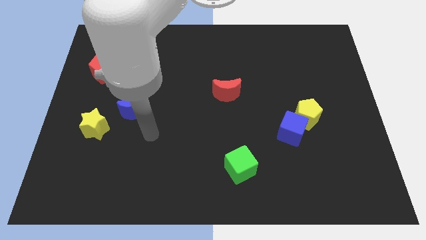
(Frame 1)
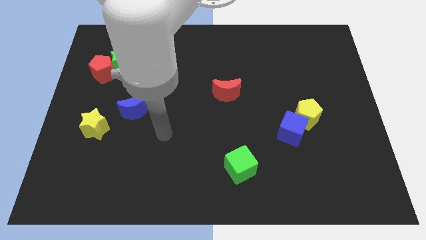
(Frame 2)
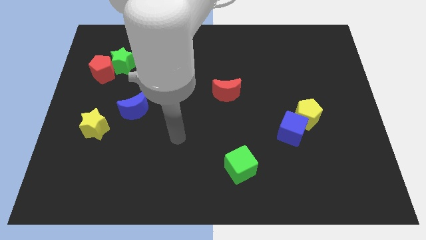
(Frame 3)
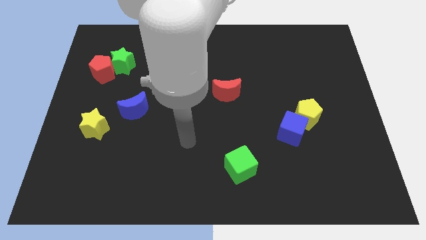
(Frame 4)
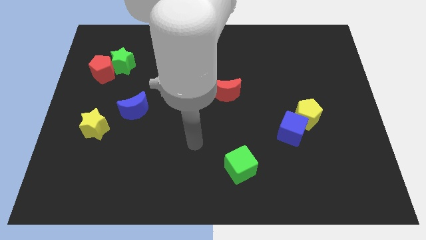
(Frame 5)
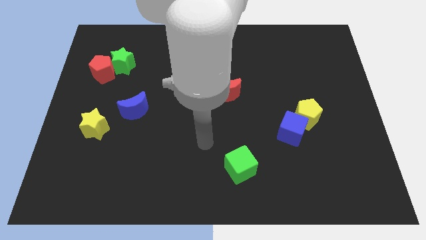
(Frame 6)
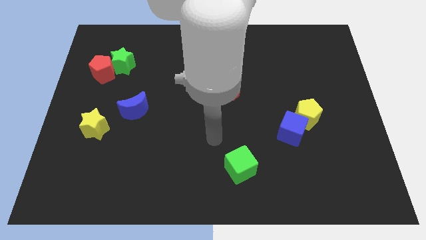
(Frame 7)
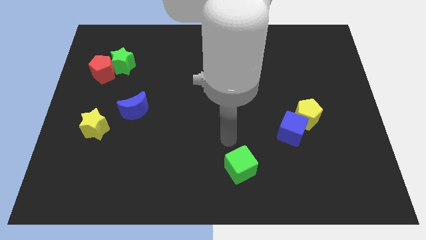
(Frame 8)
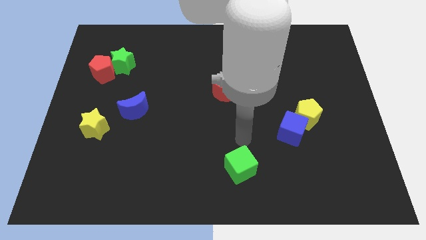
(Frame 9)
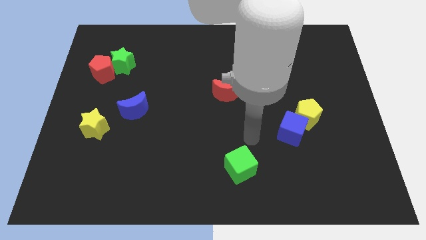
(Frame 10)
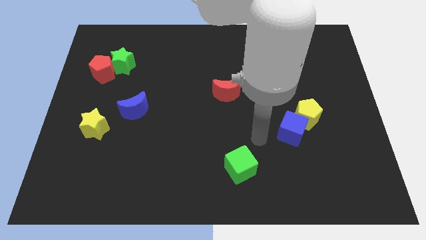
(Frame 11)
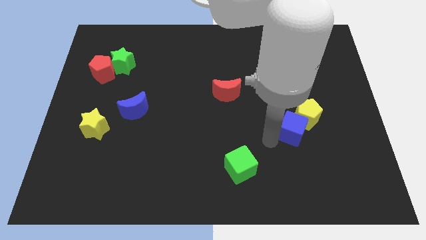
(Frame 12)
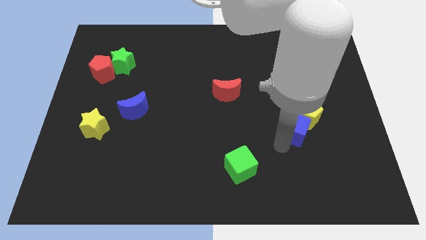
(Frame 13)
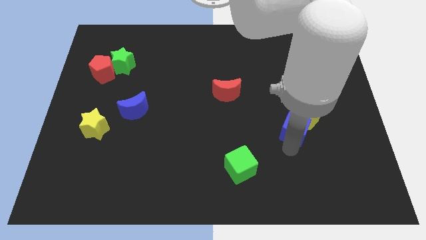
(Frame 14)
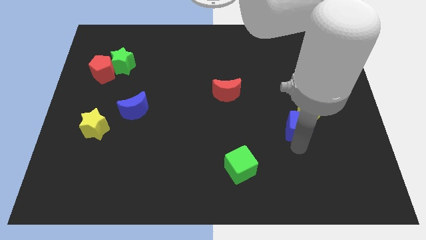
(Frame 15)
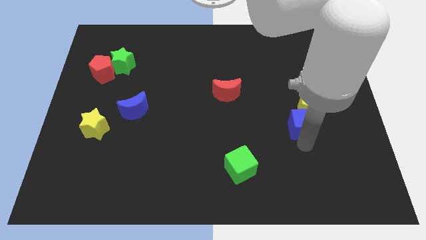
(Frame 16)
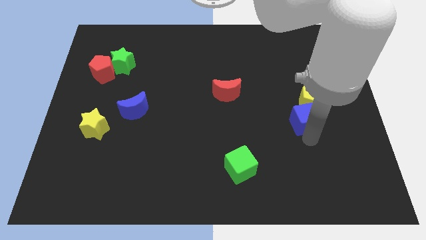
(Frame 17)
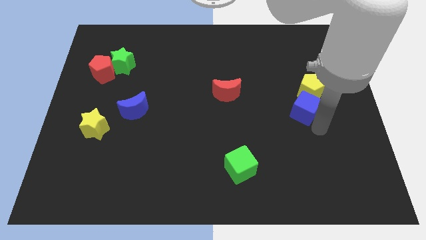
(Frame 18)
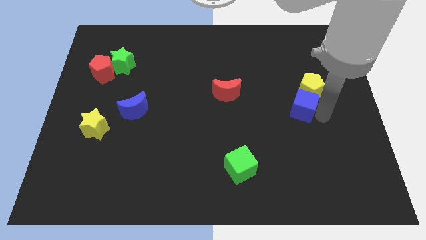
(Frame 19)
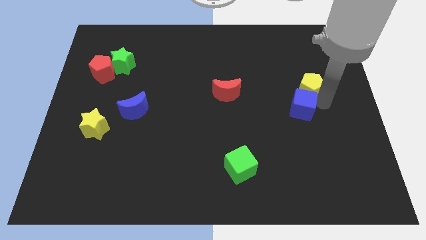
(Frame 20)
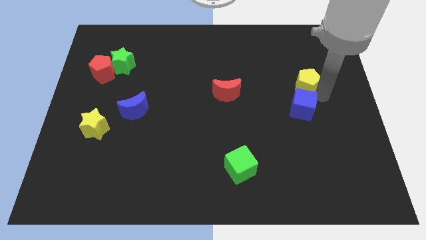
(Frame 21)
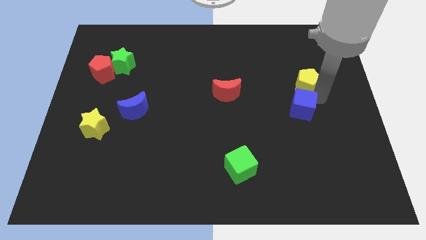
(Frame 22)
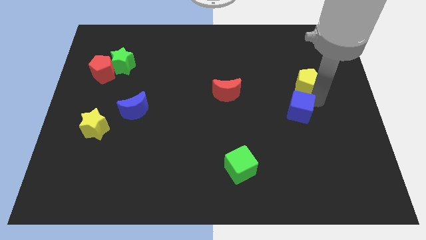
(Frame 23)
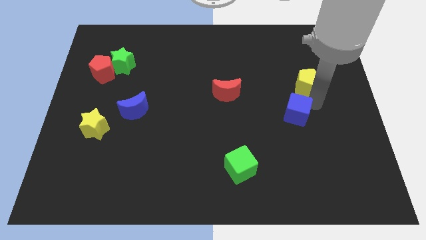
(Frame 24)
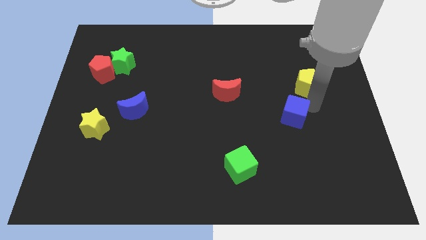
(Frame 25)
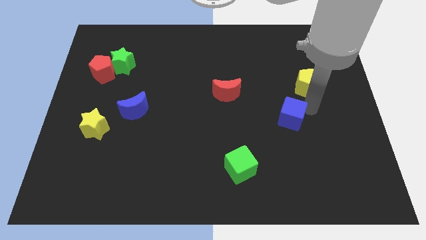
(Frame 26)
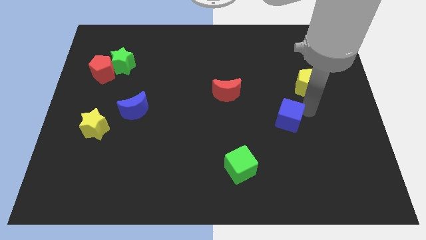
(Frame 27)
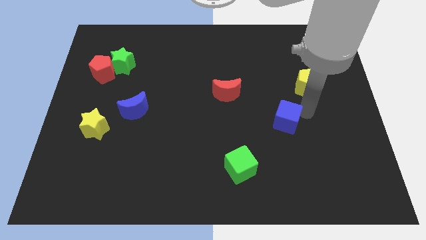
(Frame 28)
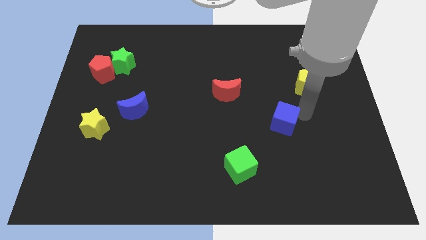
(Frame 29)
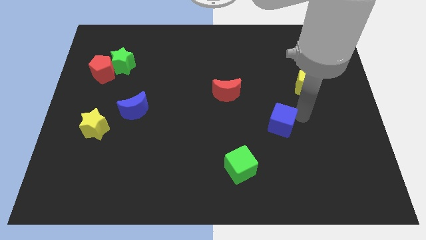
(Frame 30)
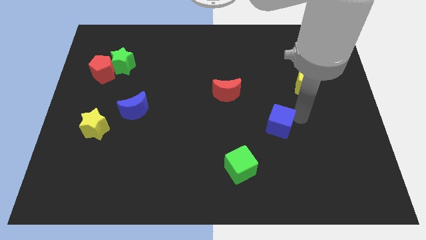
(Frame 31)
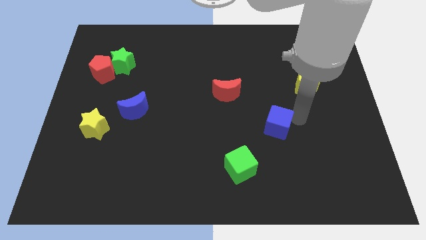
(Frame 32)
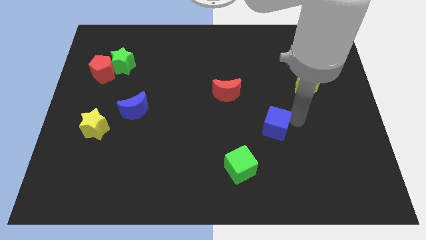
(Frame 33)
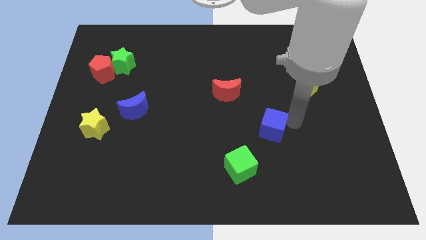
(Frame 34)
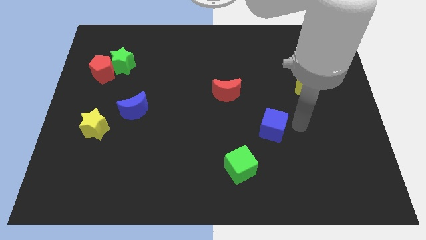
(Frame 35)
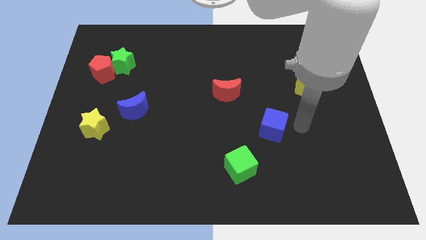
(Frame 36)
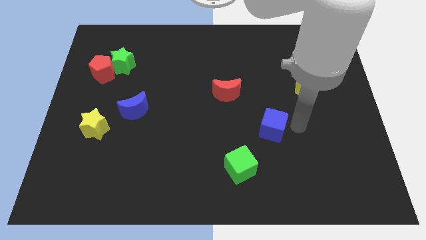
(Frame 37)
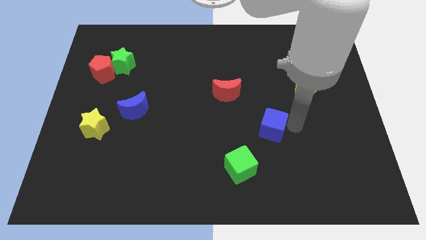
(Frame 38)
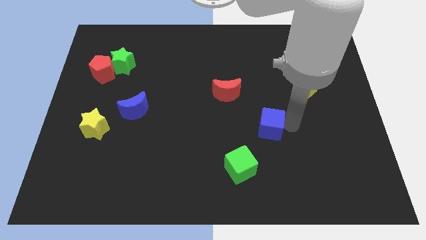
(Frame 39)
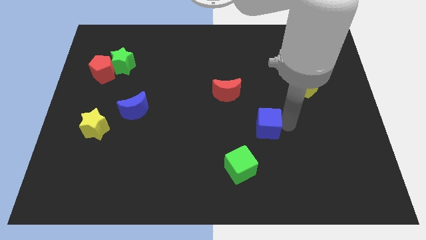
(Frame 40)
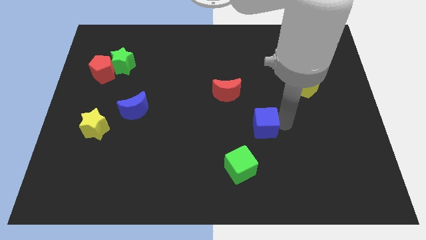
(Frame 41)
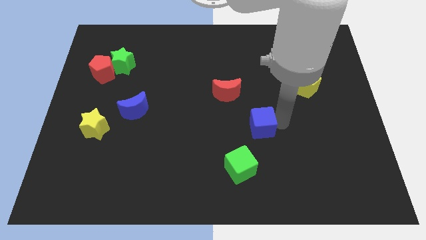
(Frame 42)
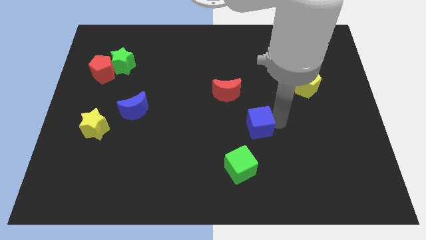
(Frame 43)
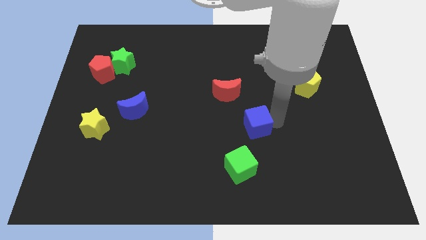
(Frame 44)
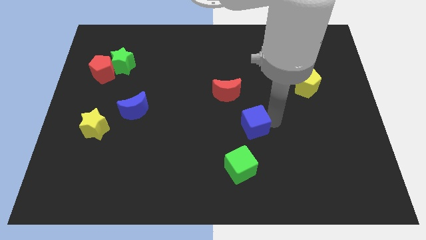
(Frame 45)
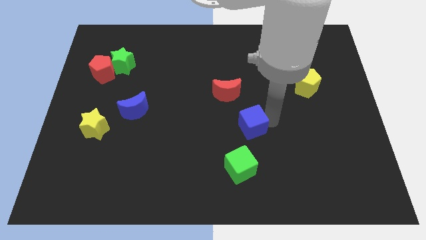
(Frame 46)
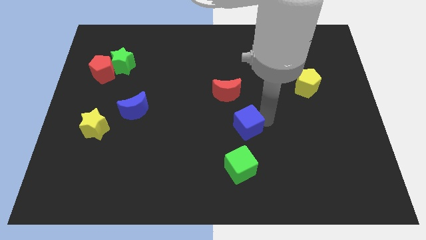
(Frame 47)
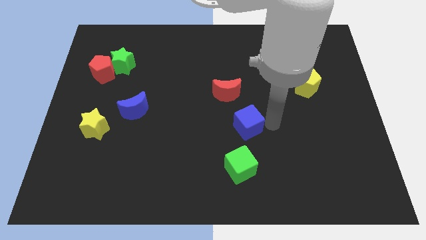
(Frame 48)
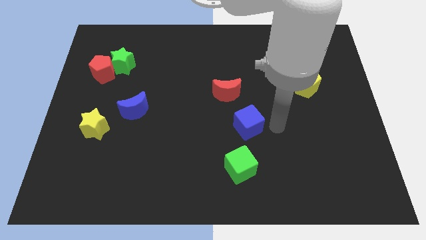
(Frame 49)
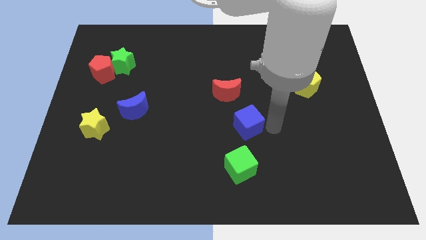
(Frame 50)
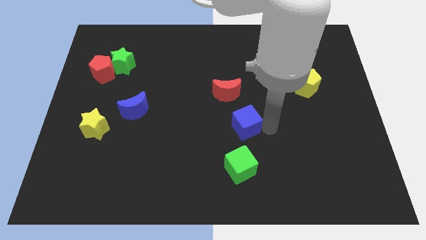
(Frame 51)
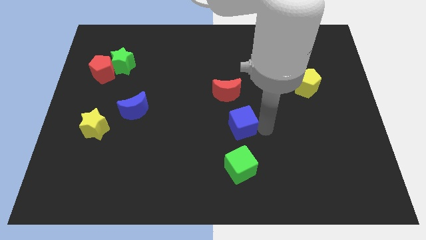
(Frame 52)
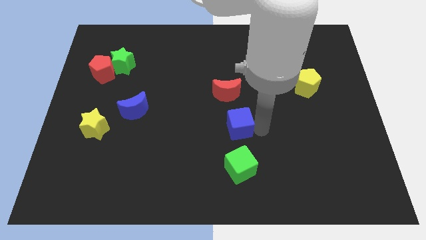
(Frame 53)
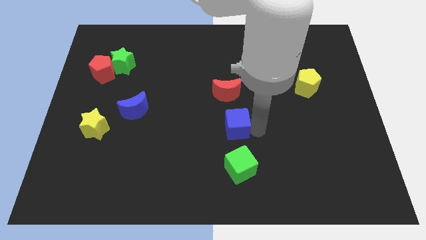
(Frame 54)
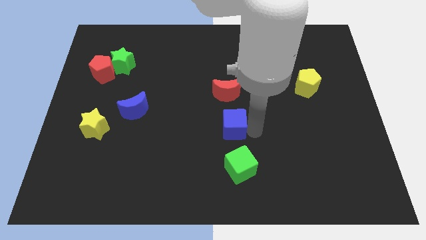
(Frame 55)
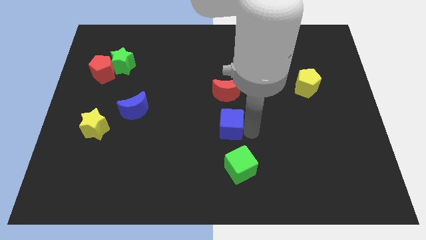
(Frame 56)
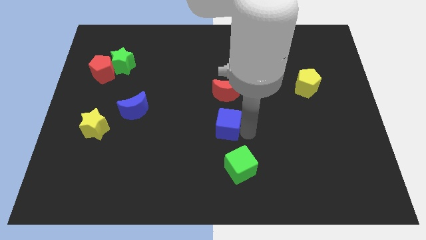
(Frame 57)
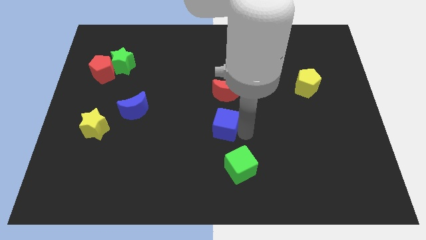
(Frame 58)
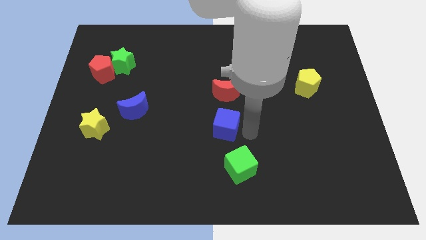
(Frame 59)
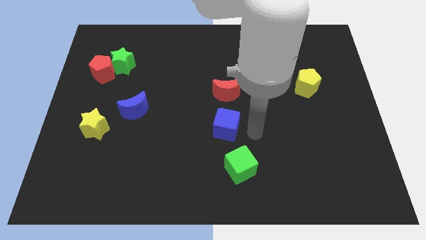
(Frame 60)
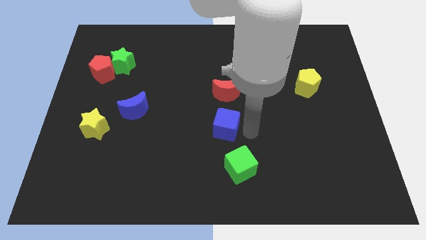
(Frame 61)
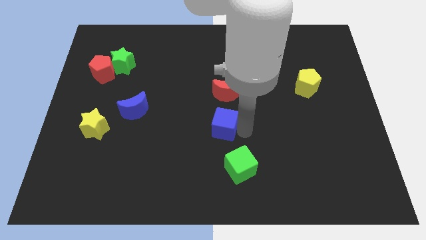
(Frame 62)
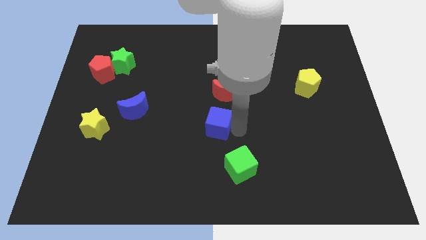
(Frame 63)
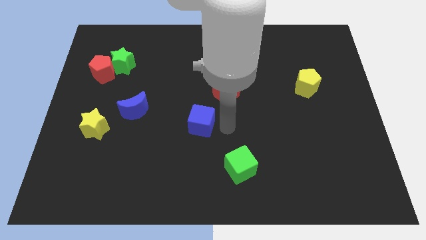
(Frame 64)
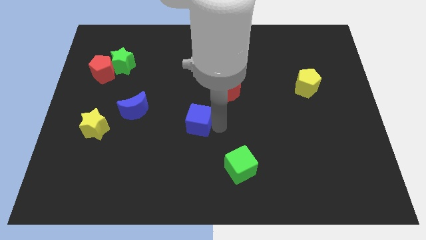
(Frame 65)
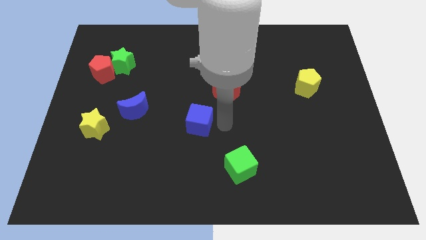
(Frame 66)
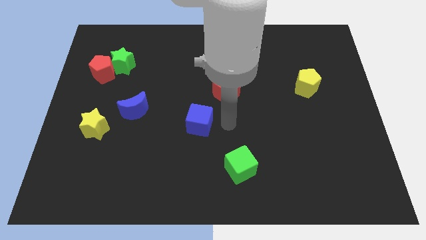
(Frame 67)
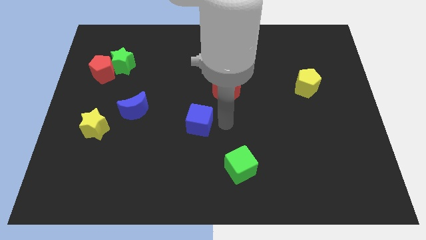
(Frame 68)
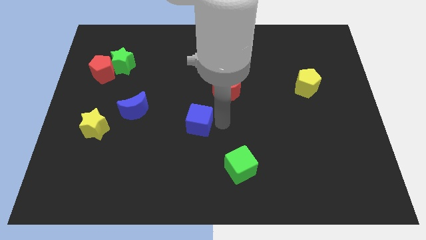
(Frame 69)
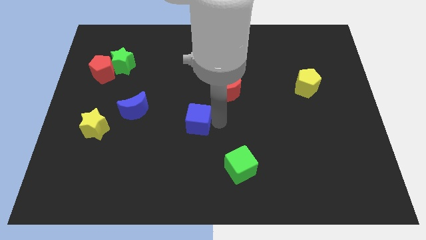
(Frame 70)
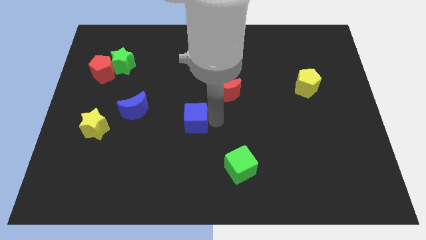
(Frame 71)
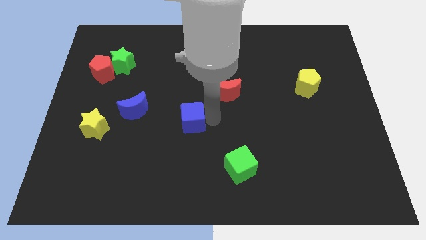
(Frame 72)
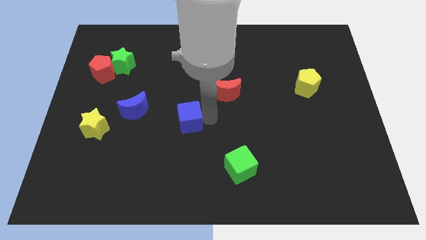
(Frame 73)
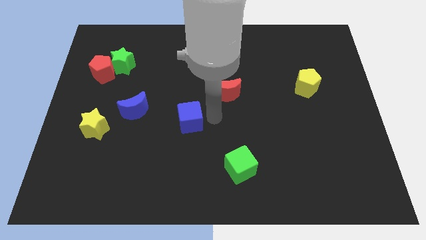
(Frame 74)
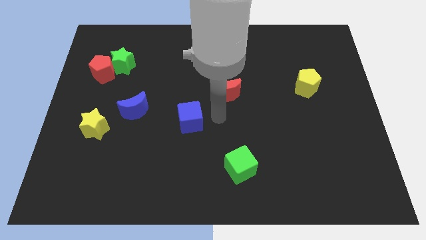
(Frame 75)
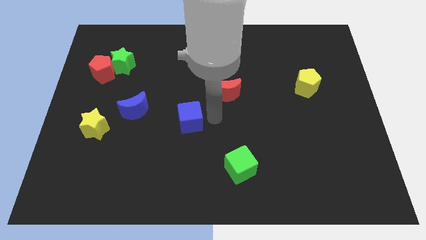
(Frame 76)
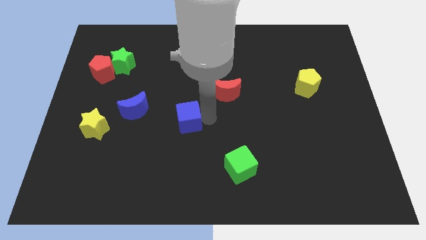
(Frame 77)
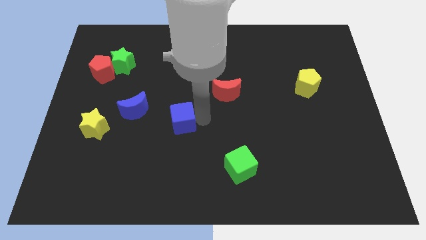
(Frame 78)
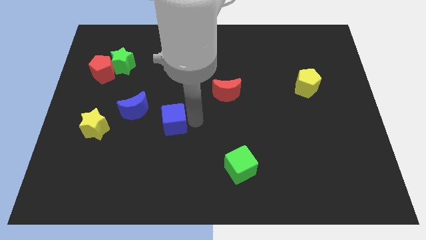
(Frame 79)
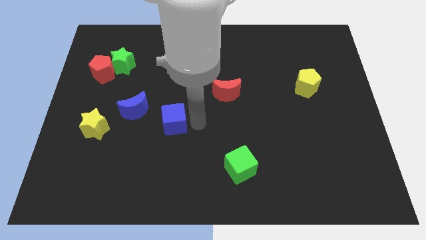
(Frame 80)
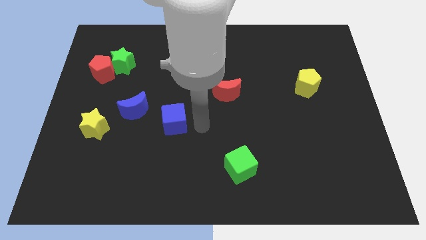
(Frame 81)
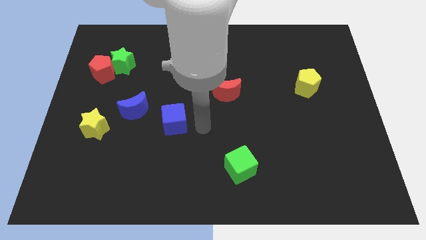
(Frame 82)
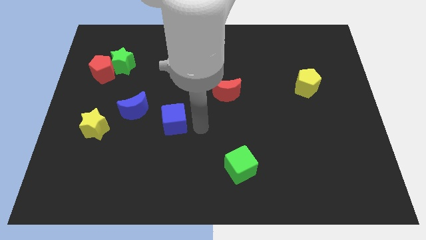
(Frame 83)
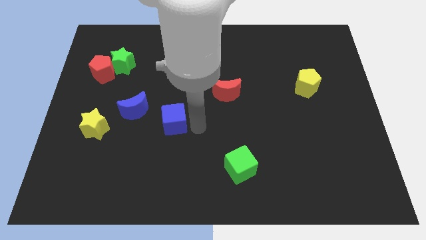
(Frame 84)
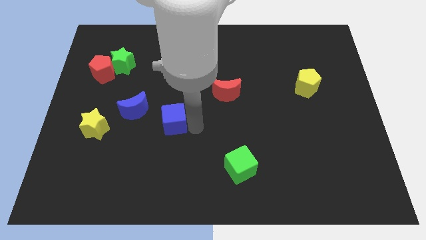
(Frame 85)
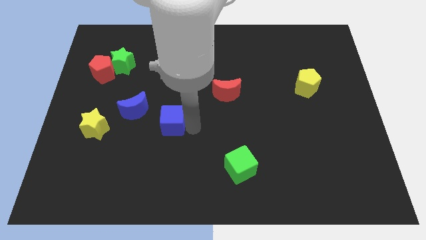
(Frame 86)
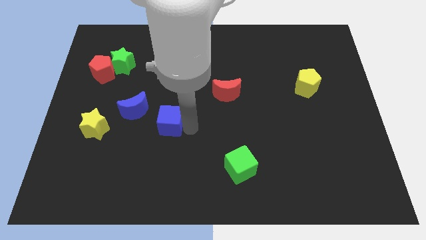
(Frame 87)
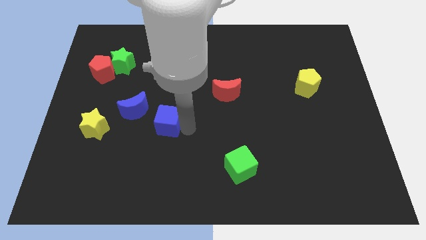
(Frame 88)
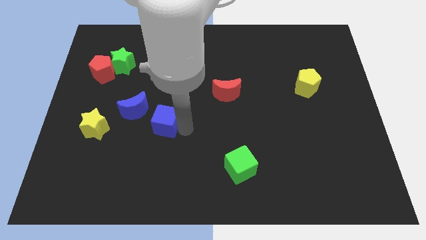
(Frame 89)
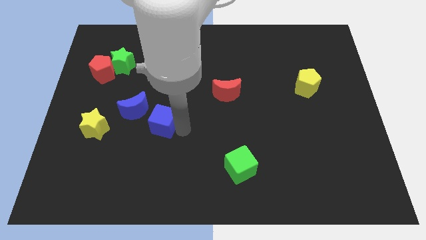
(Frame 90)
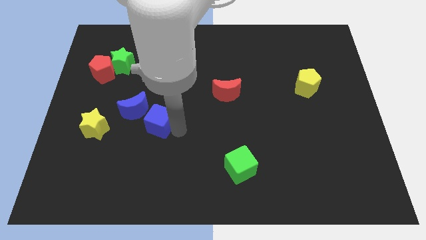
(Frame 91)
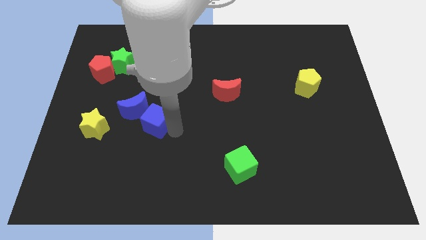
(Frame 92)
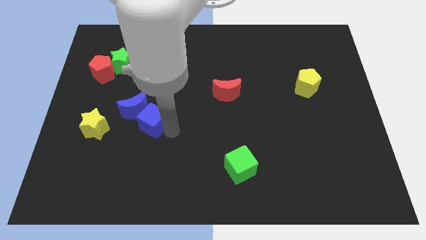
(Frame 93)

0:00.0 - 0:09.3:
put the blue cube close to the blue moon
